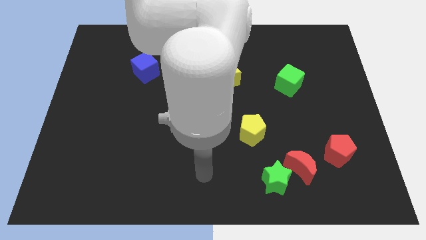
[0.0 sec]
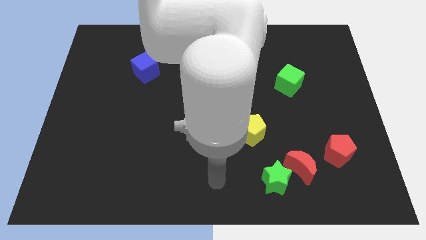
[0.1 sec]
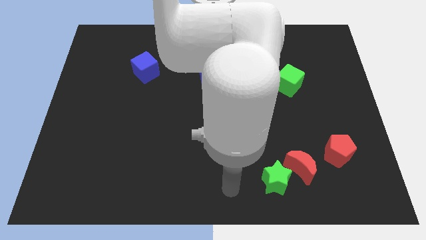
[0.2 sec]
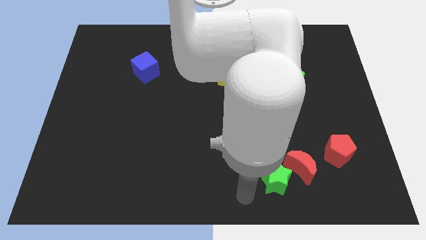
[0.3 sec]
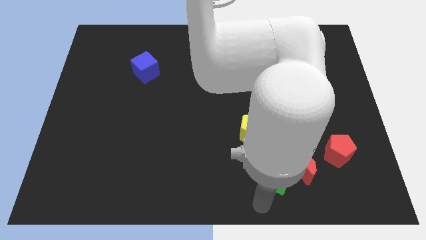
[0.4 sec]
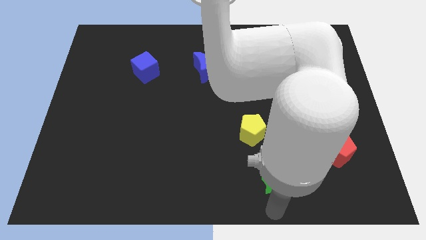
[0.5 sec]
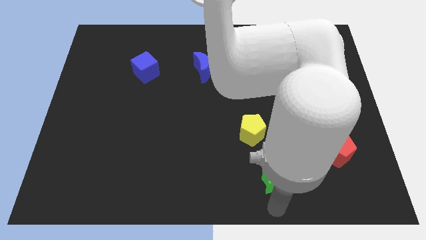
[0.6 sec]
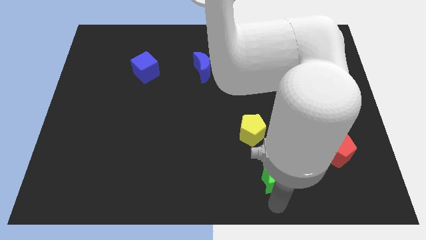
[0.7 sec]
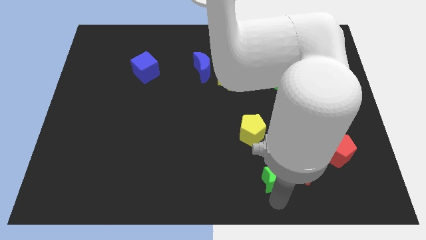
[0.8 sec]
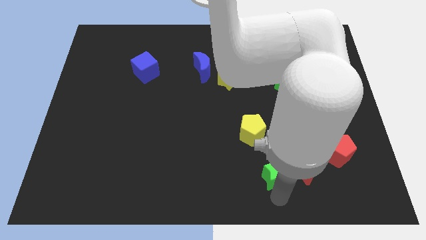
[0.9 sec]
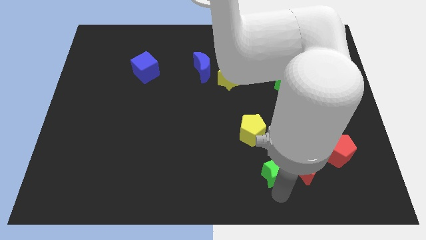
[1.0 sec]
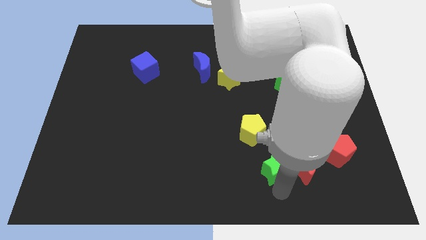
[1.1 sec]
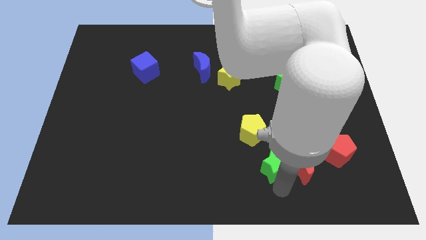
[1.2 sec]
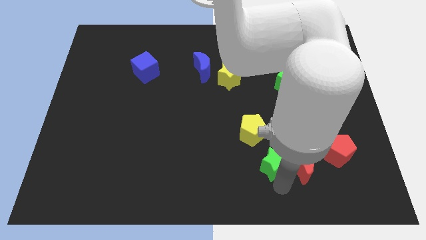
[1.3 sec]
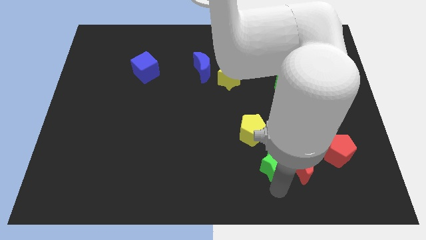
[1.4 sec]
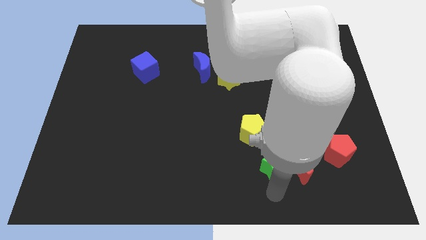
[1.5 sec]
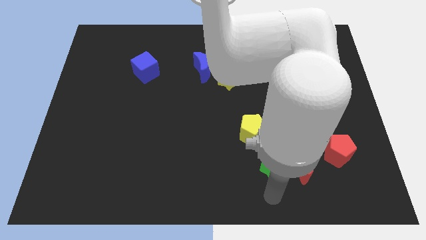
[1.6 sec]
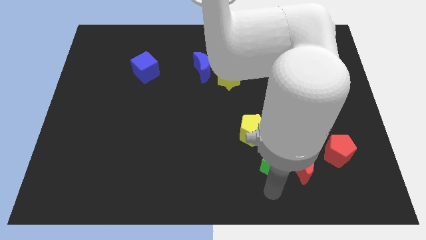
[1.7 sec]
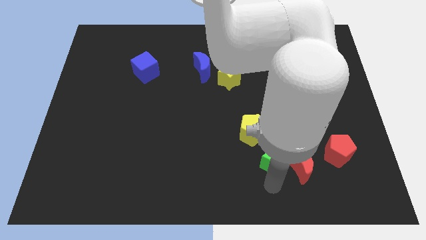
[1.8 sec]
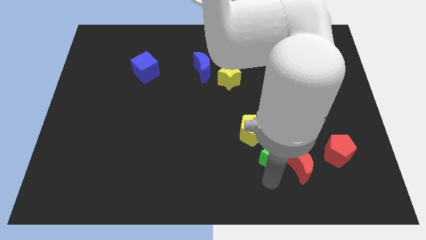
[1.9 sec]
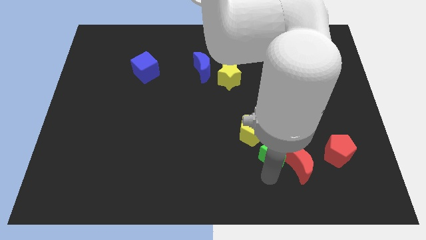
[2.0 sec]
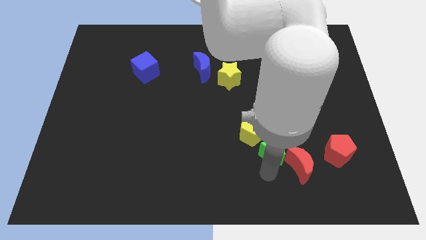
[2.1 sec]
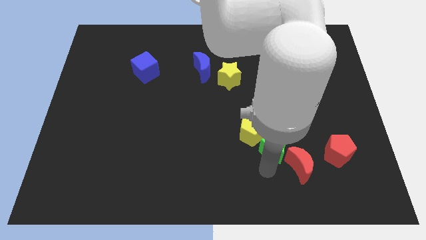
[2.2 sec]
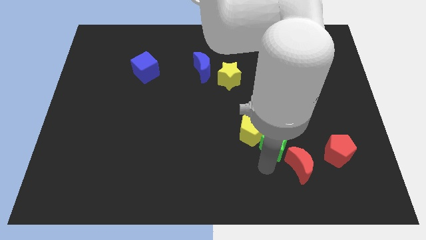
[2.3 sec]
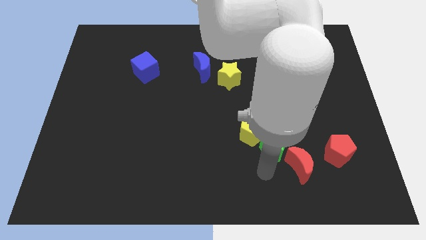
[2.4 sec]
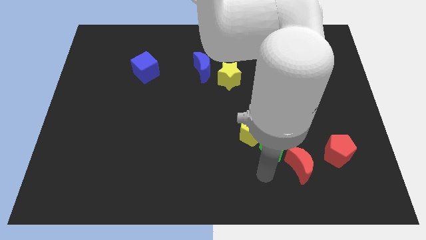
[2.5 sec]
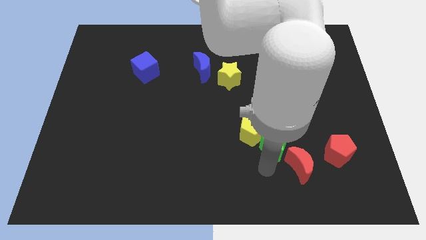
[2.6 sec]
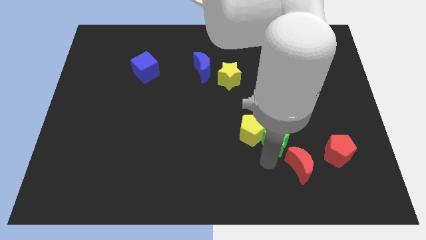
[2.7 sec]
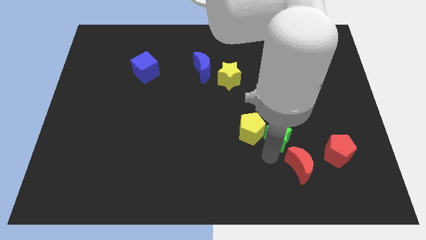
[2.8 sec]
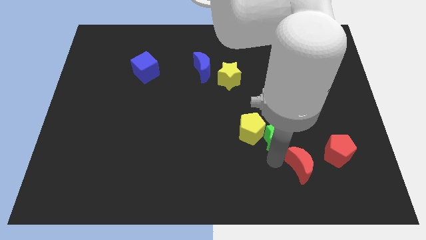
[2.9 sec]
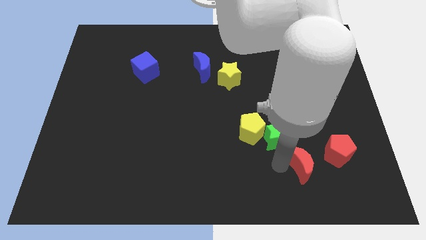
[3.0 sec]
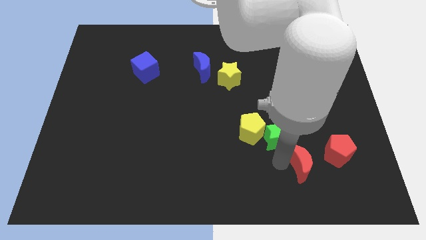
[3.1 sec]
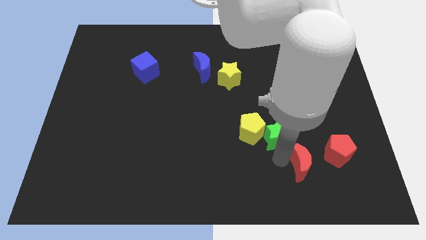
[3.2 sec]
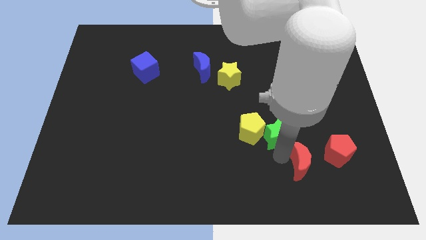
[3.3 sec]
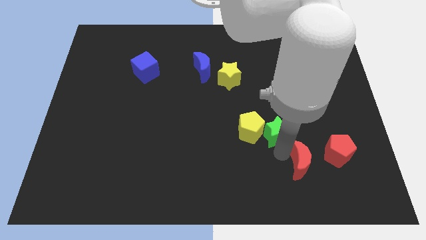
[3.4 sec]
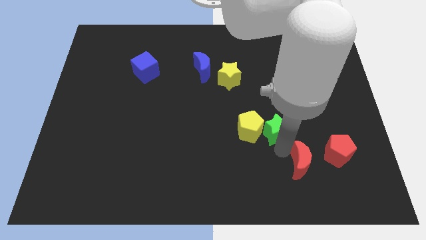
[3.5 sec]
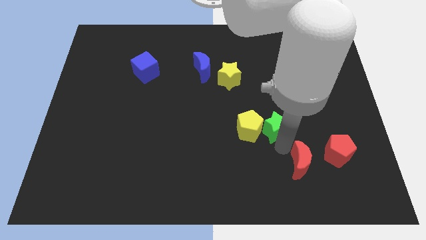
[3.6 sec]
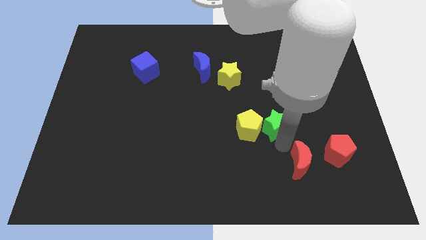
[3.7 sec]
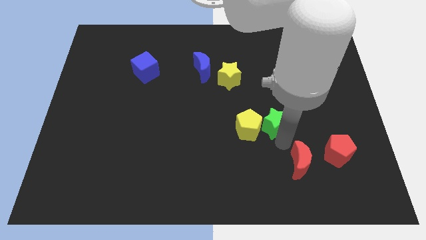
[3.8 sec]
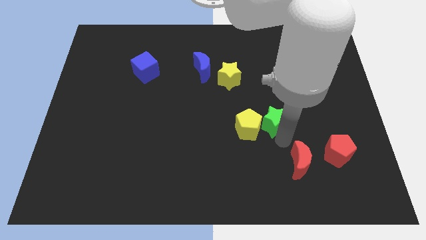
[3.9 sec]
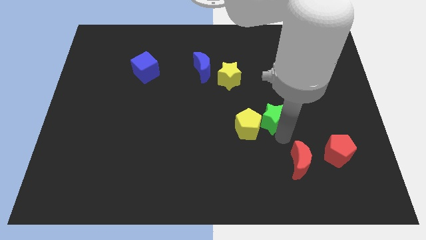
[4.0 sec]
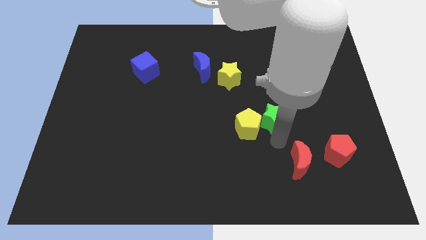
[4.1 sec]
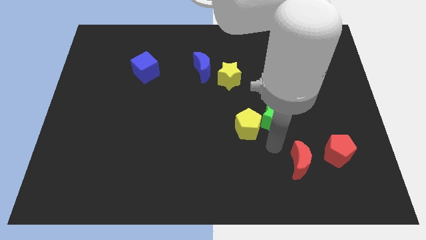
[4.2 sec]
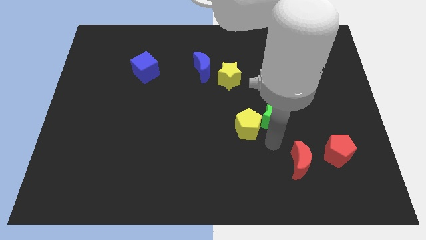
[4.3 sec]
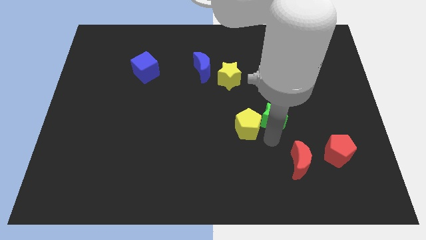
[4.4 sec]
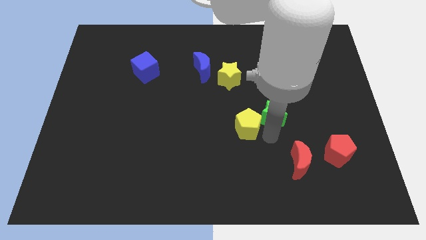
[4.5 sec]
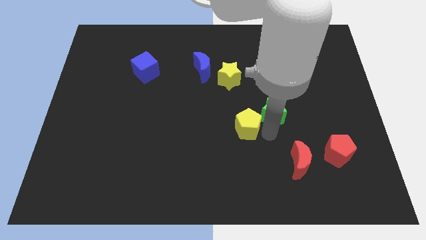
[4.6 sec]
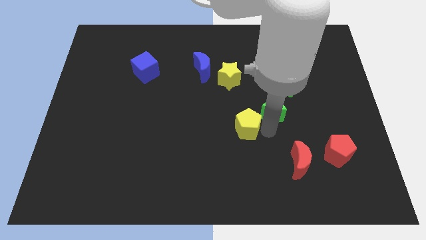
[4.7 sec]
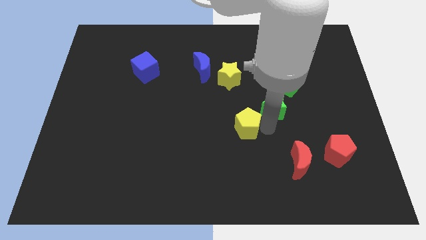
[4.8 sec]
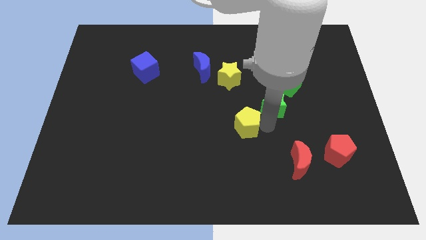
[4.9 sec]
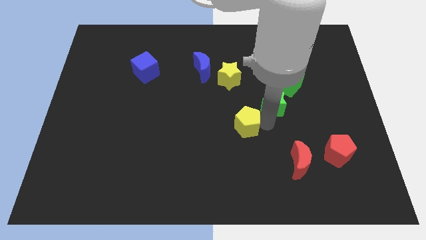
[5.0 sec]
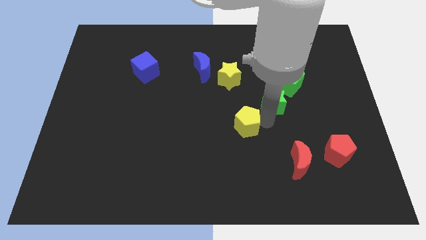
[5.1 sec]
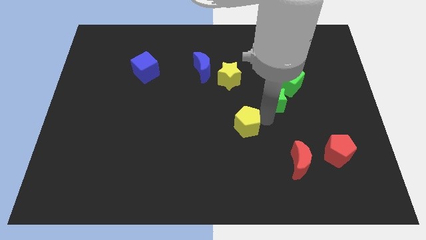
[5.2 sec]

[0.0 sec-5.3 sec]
move the green star upwards

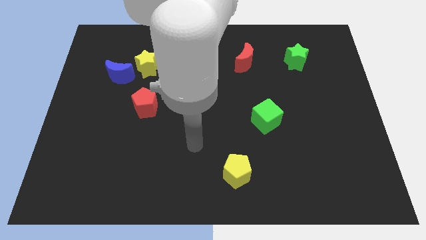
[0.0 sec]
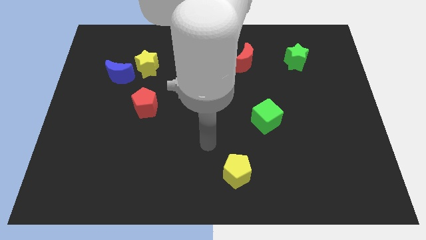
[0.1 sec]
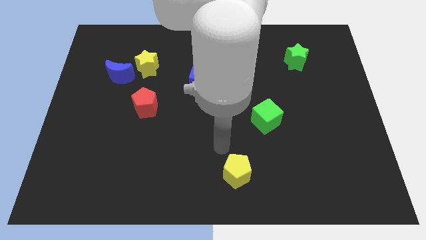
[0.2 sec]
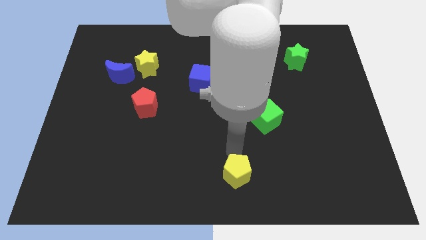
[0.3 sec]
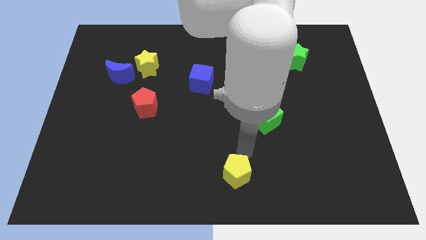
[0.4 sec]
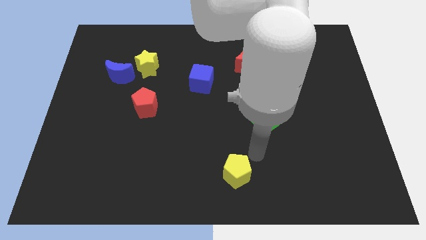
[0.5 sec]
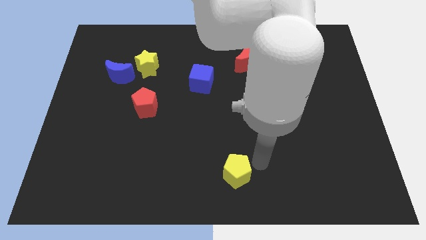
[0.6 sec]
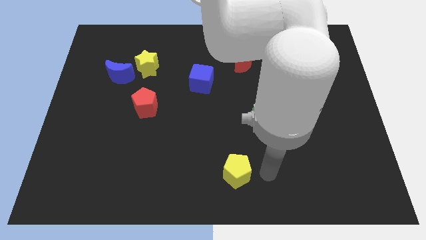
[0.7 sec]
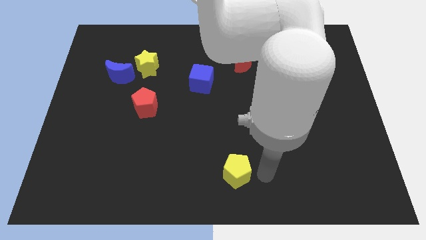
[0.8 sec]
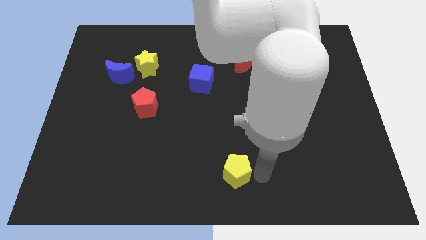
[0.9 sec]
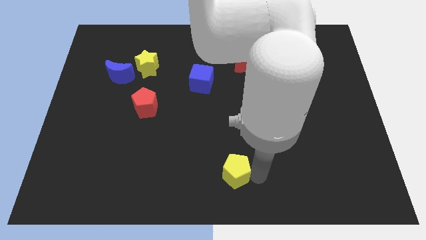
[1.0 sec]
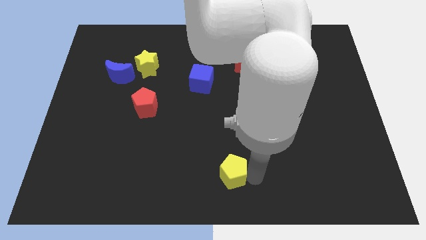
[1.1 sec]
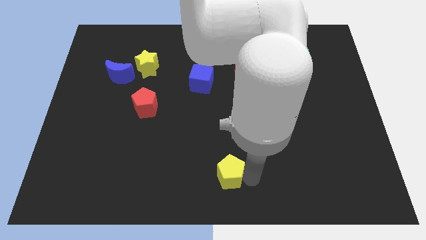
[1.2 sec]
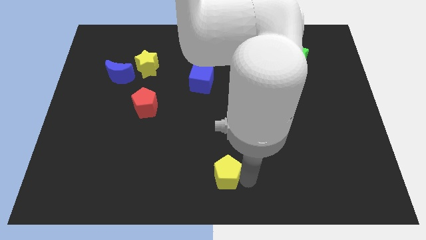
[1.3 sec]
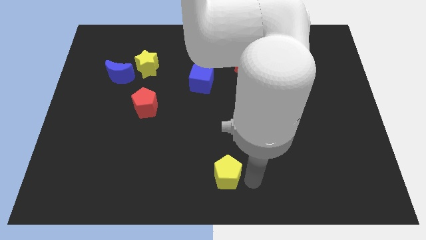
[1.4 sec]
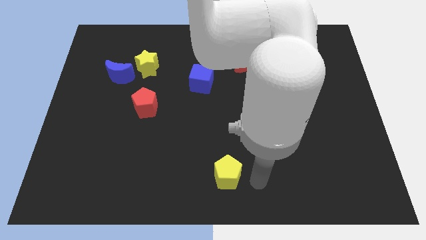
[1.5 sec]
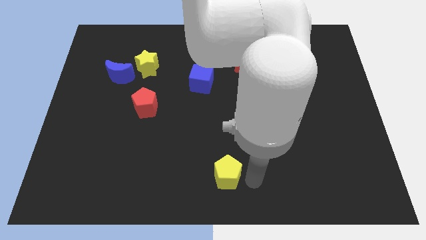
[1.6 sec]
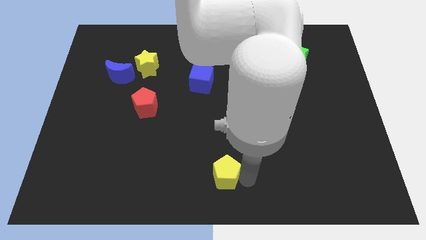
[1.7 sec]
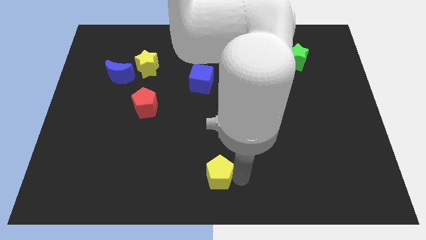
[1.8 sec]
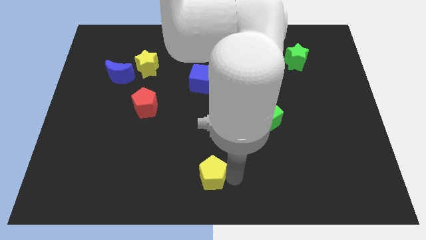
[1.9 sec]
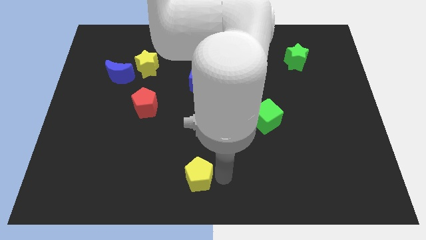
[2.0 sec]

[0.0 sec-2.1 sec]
move the yellow pentagon slightly left

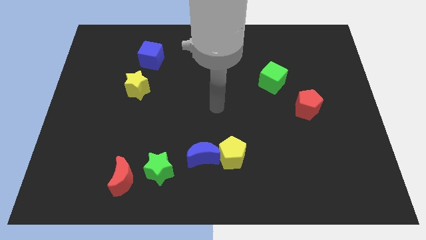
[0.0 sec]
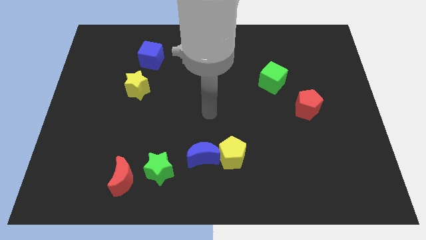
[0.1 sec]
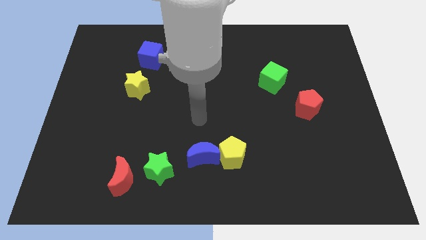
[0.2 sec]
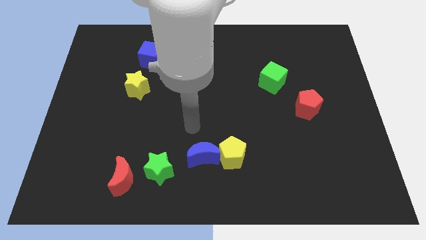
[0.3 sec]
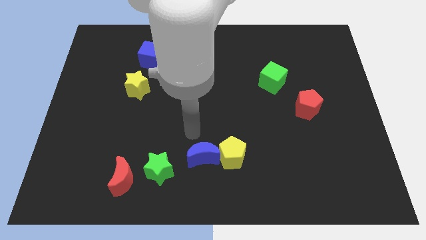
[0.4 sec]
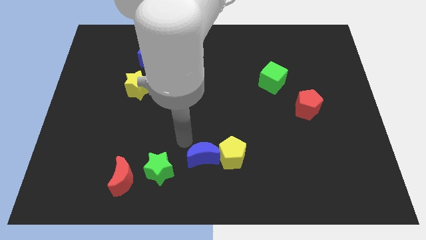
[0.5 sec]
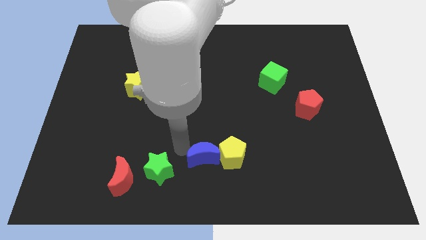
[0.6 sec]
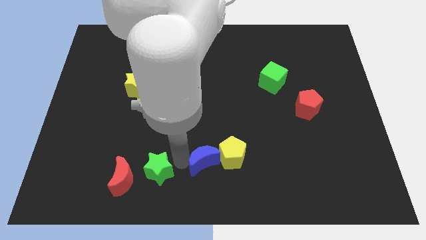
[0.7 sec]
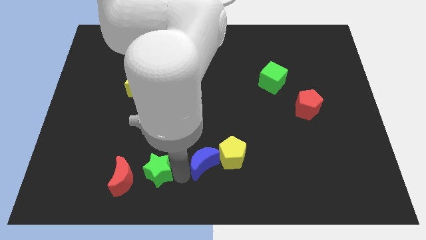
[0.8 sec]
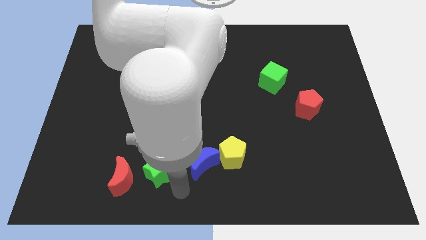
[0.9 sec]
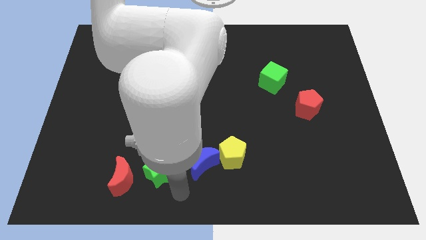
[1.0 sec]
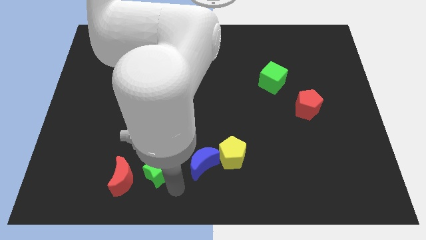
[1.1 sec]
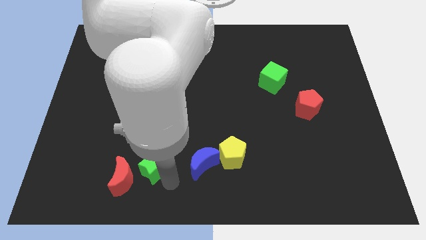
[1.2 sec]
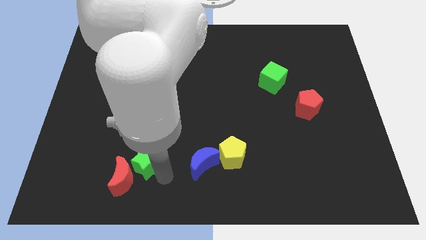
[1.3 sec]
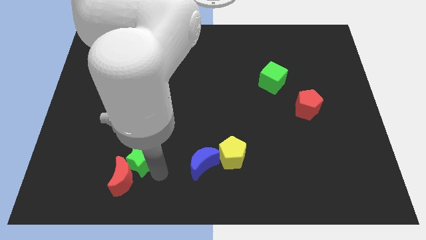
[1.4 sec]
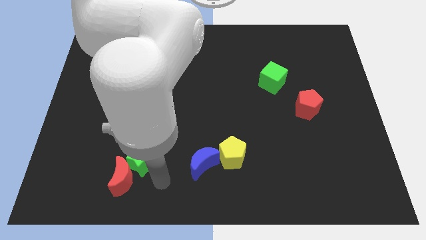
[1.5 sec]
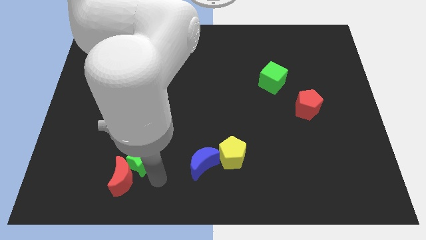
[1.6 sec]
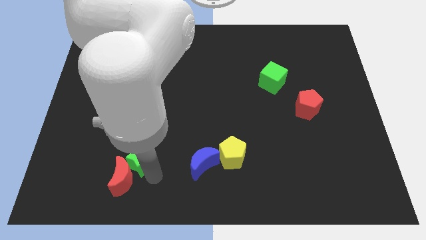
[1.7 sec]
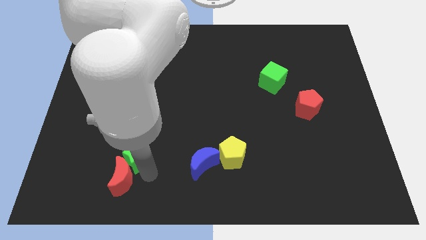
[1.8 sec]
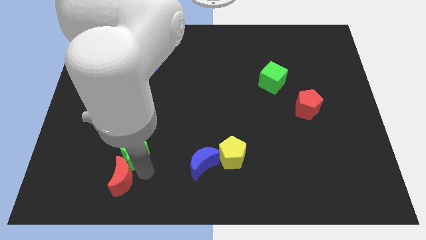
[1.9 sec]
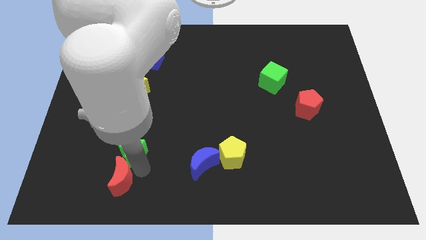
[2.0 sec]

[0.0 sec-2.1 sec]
push the green star a little bit upwards and then left
